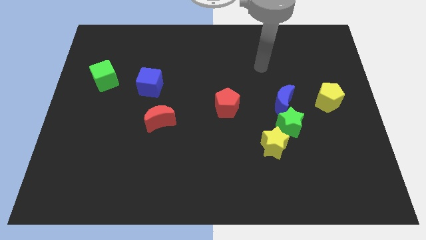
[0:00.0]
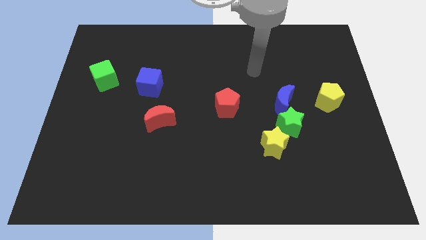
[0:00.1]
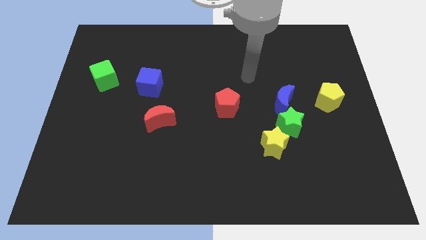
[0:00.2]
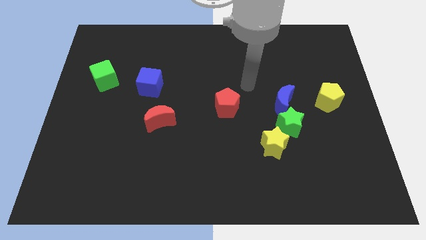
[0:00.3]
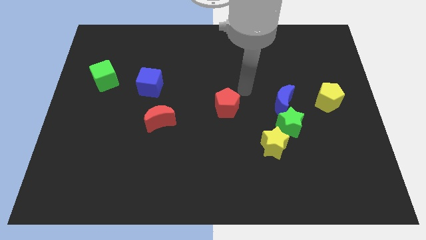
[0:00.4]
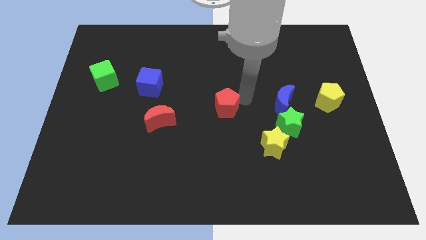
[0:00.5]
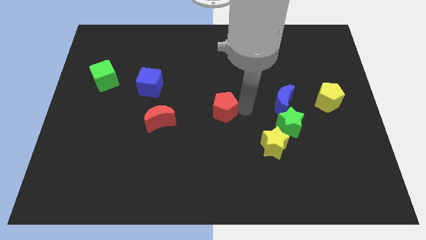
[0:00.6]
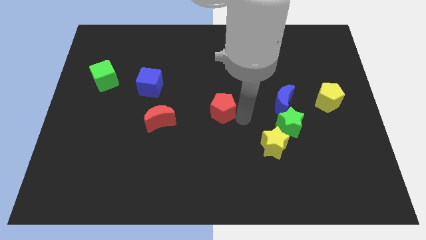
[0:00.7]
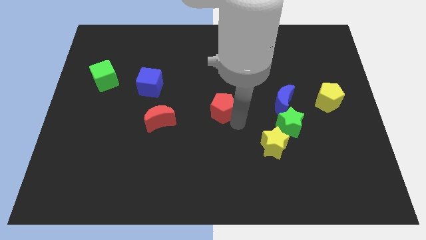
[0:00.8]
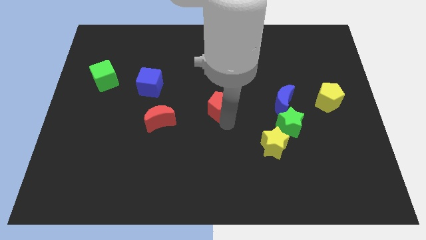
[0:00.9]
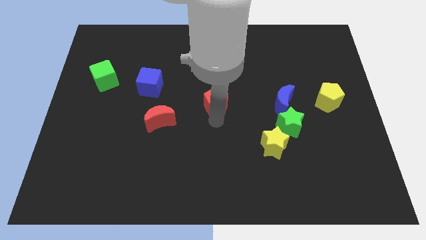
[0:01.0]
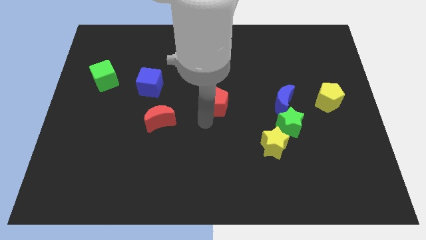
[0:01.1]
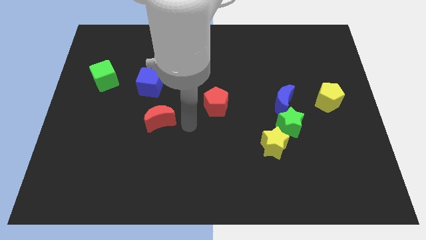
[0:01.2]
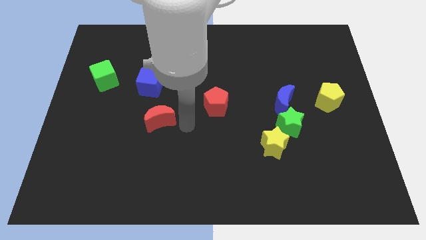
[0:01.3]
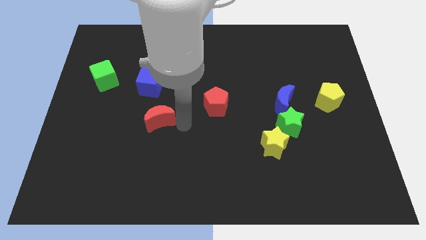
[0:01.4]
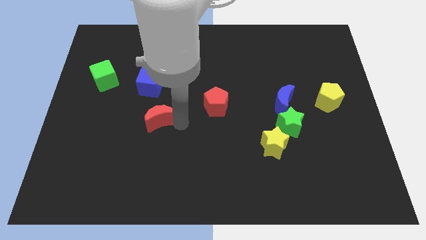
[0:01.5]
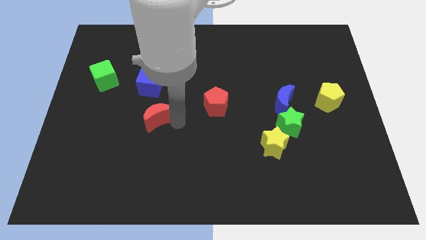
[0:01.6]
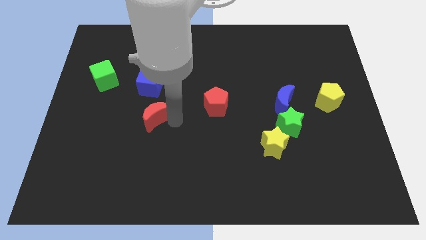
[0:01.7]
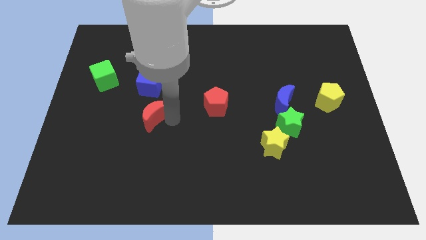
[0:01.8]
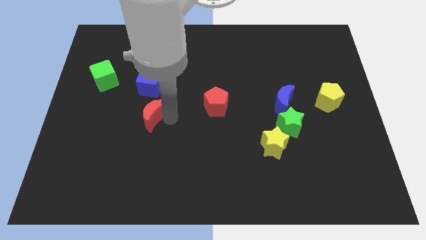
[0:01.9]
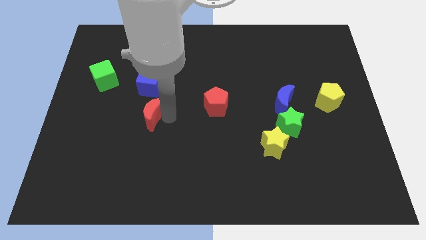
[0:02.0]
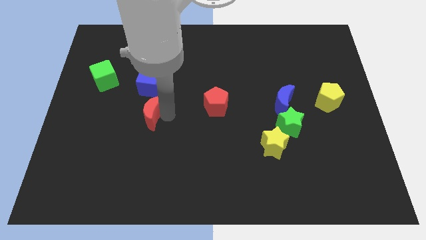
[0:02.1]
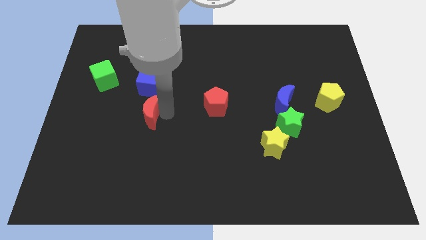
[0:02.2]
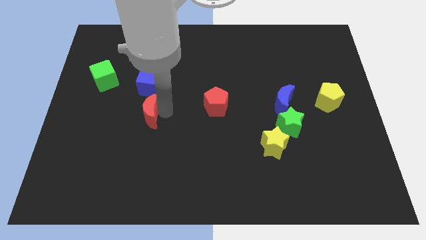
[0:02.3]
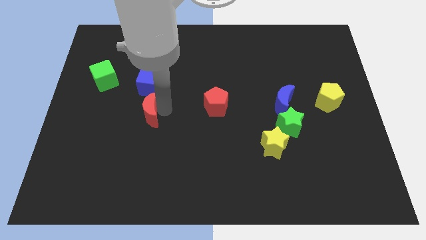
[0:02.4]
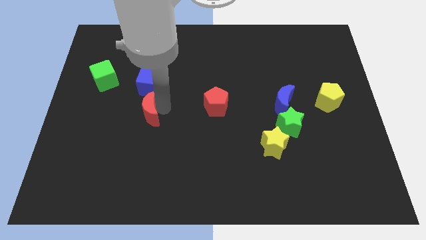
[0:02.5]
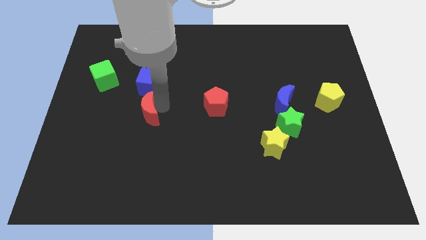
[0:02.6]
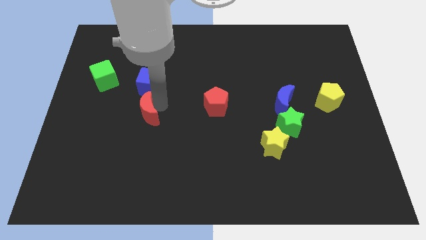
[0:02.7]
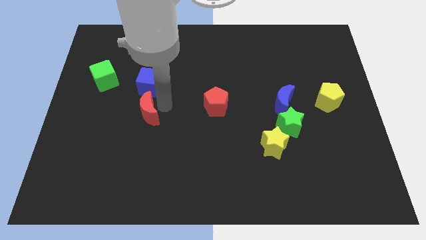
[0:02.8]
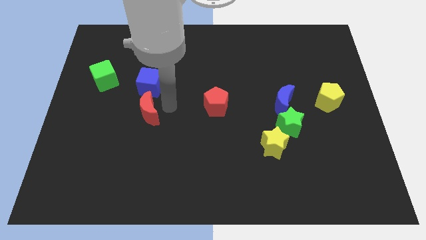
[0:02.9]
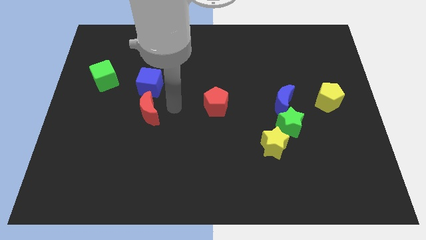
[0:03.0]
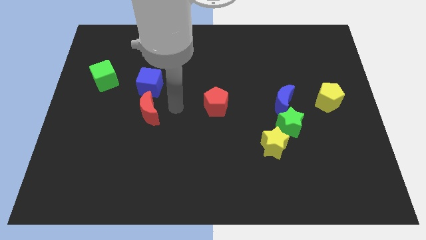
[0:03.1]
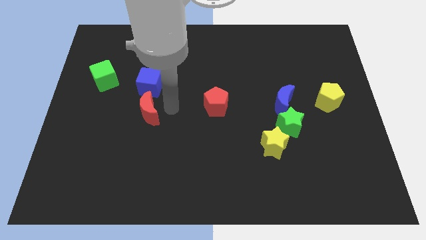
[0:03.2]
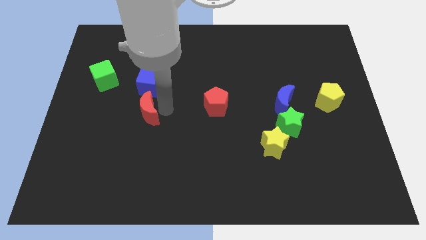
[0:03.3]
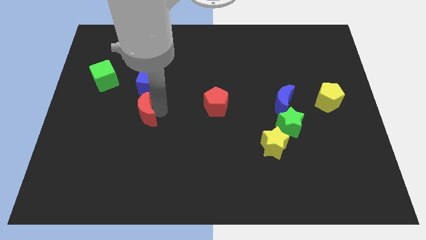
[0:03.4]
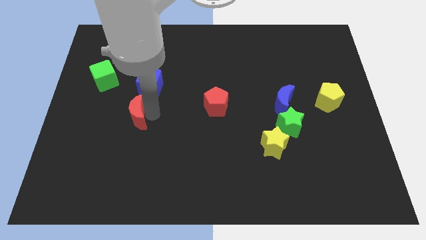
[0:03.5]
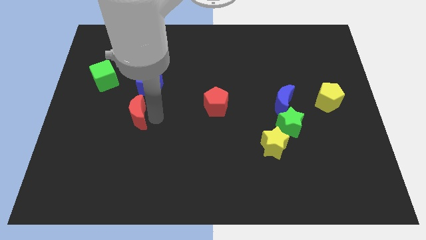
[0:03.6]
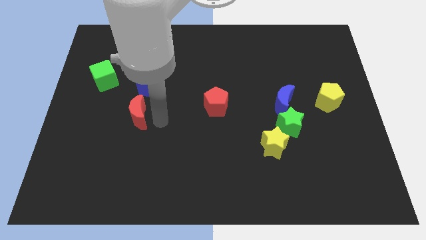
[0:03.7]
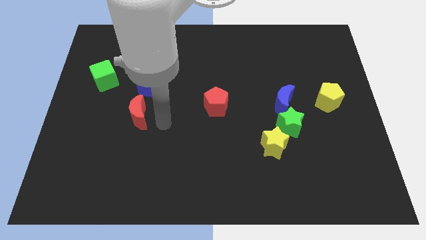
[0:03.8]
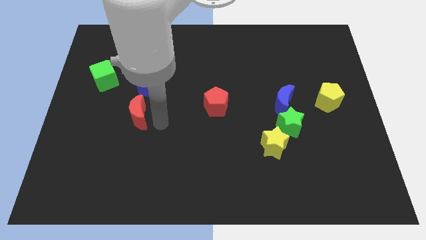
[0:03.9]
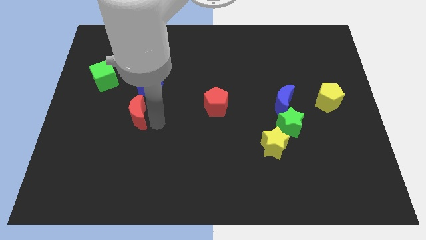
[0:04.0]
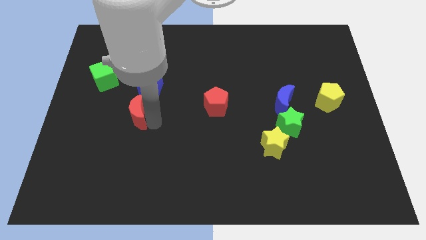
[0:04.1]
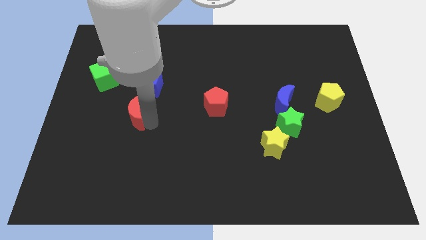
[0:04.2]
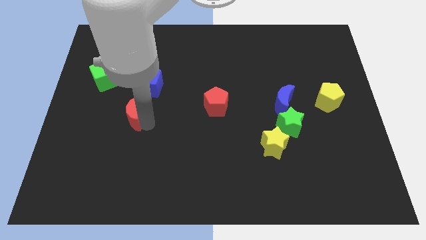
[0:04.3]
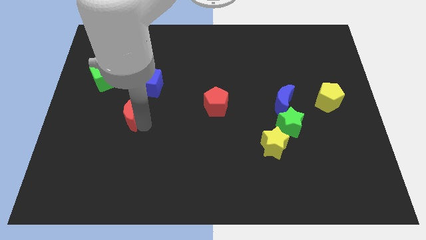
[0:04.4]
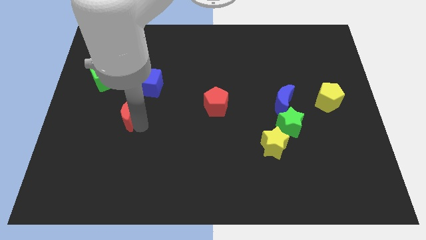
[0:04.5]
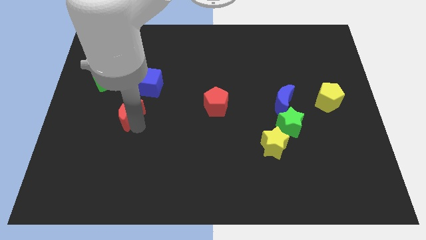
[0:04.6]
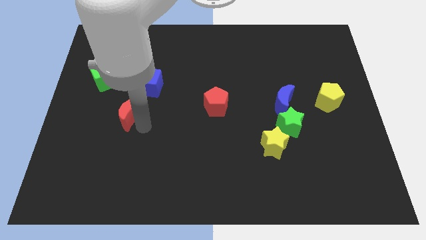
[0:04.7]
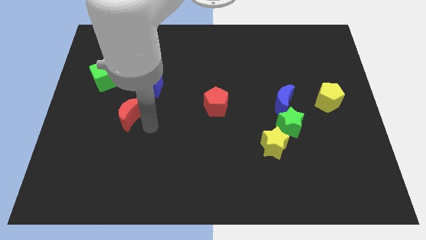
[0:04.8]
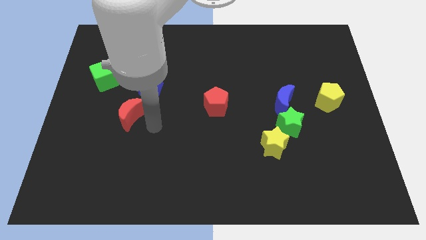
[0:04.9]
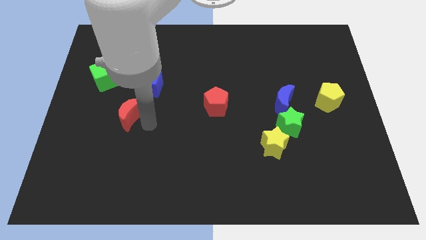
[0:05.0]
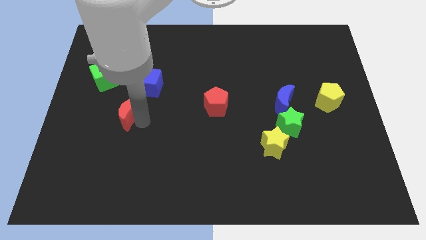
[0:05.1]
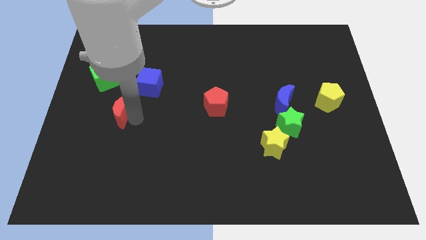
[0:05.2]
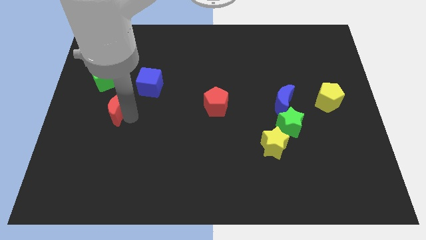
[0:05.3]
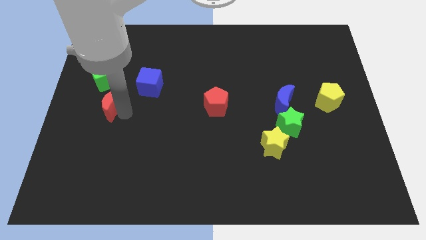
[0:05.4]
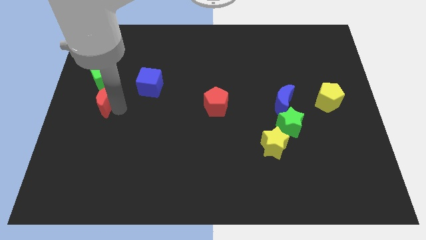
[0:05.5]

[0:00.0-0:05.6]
put the red moon to the center left

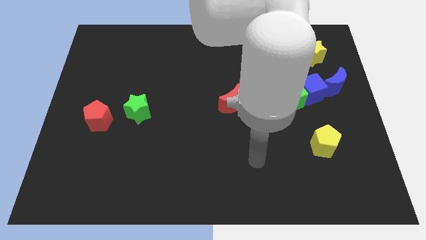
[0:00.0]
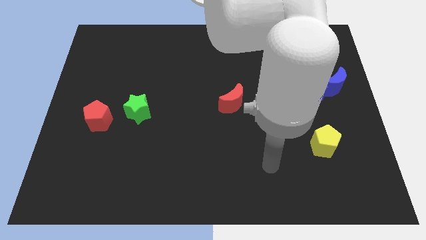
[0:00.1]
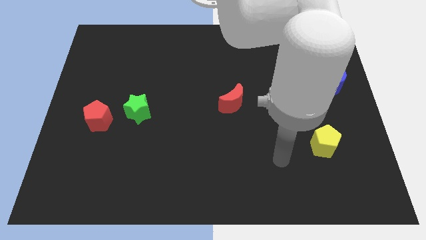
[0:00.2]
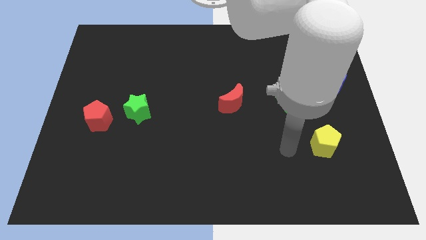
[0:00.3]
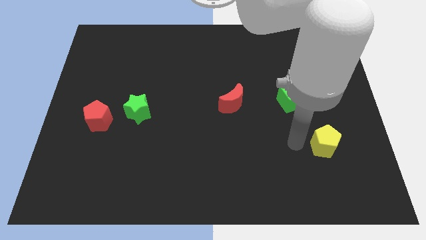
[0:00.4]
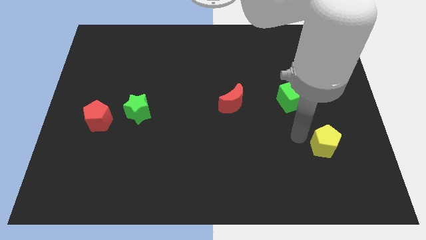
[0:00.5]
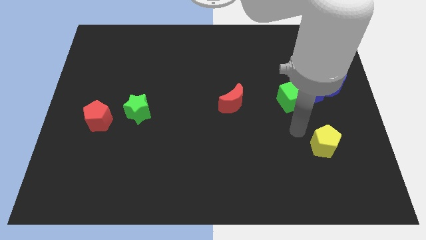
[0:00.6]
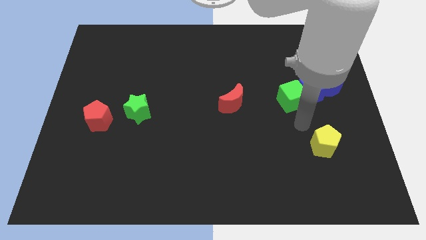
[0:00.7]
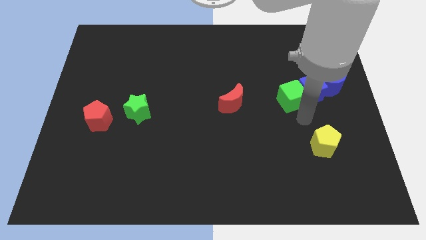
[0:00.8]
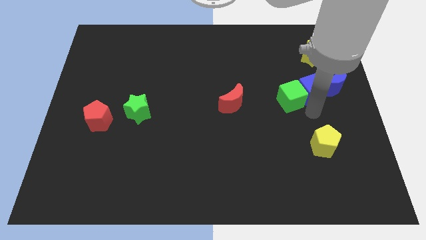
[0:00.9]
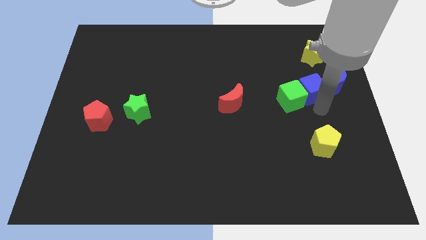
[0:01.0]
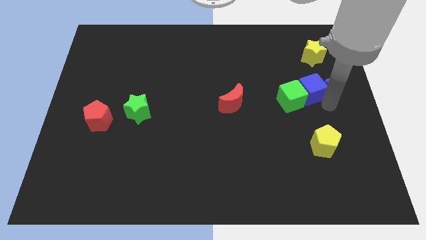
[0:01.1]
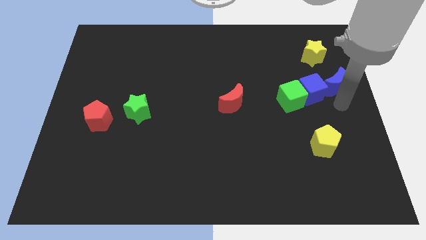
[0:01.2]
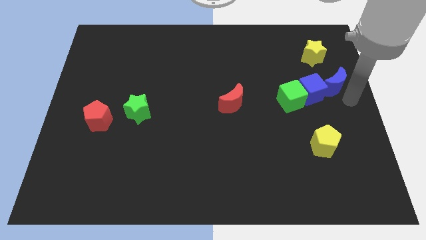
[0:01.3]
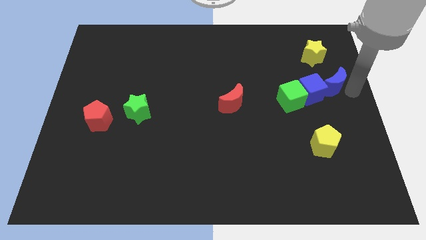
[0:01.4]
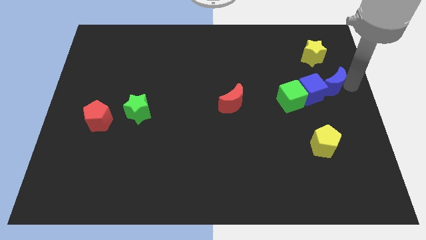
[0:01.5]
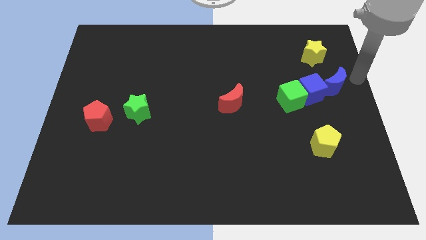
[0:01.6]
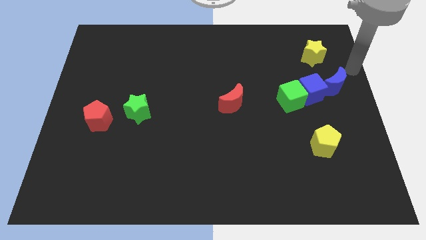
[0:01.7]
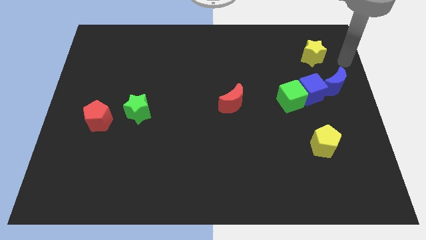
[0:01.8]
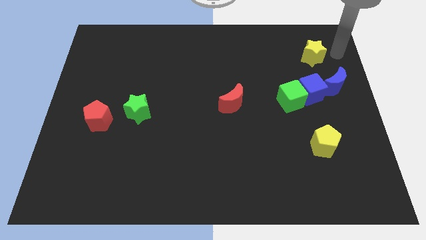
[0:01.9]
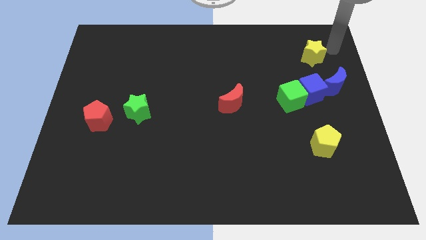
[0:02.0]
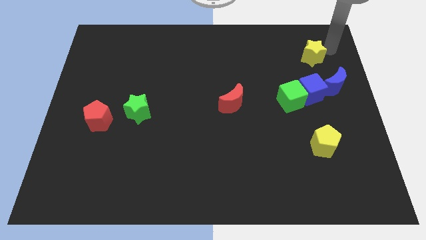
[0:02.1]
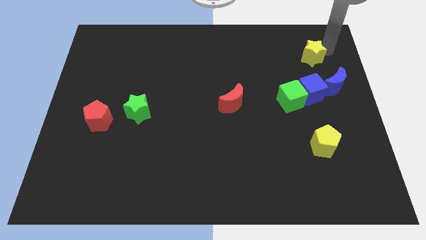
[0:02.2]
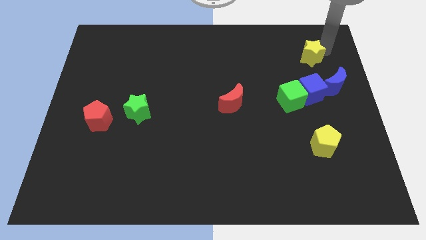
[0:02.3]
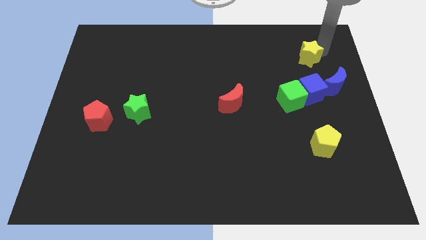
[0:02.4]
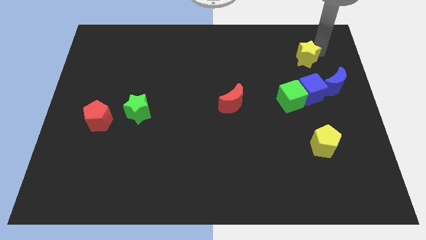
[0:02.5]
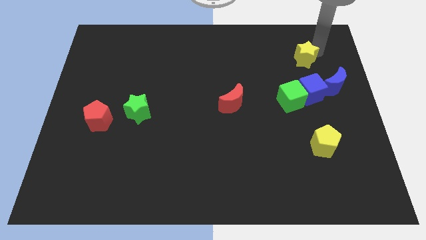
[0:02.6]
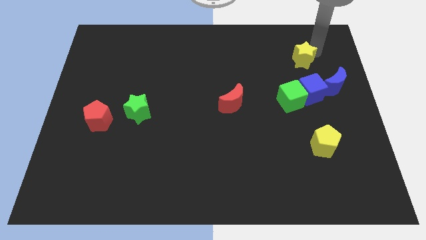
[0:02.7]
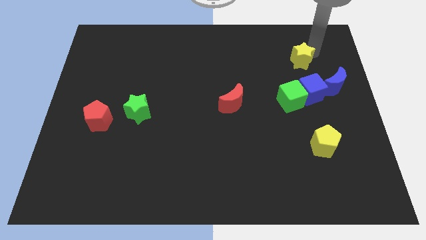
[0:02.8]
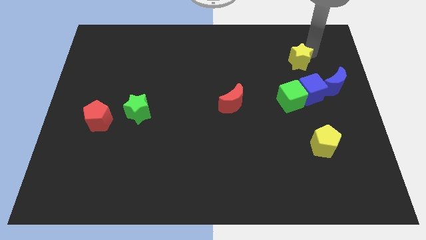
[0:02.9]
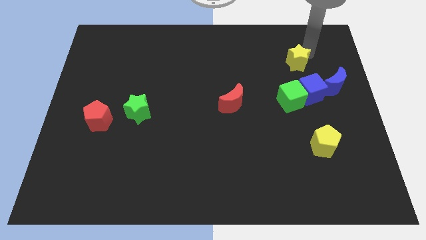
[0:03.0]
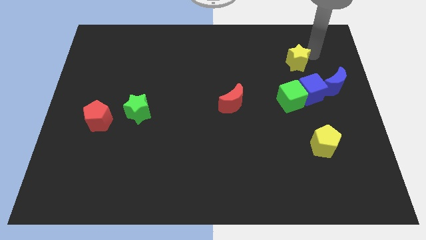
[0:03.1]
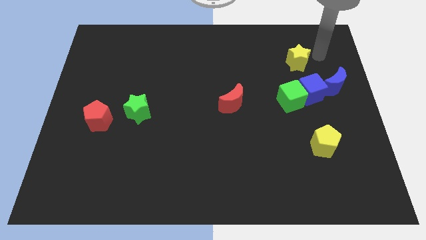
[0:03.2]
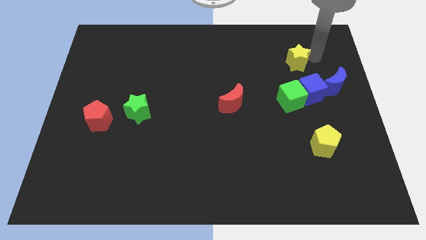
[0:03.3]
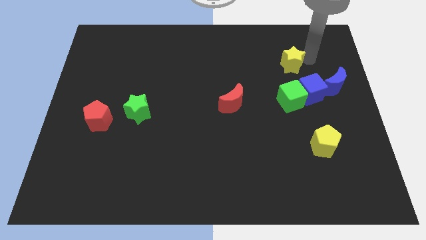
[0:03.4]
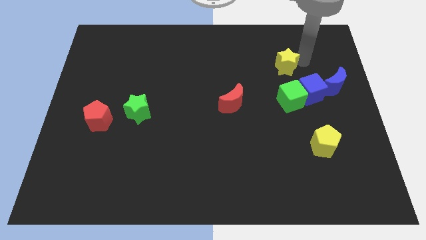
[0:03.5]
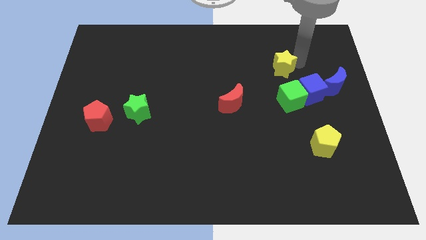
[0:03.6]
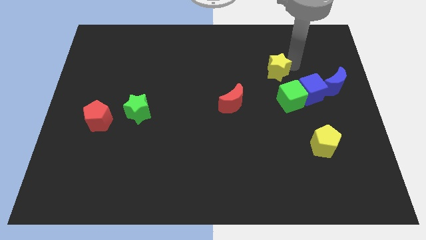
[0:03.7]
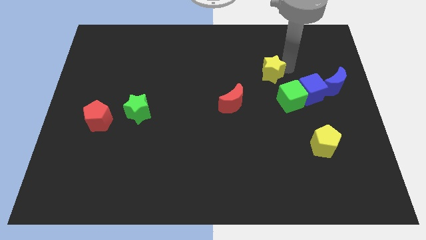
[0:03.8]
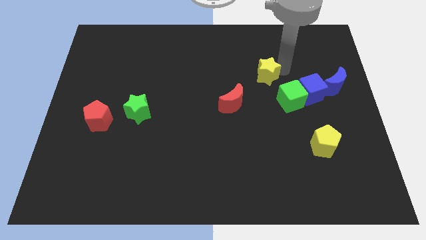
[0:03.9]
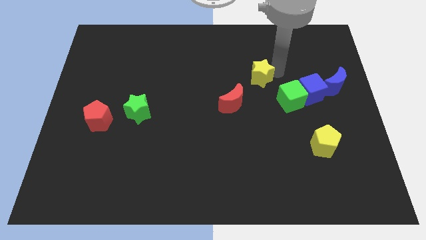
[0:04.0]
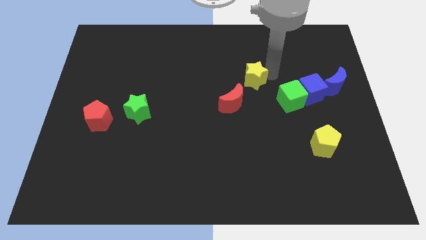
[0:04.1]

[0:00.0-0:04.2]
push the yellow star to the middle
